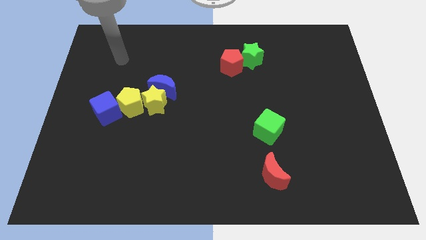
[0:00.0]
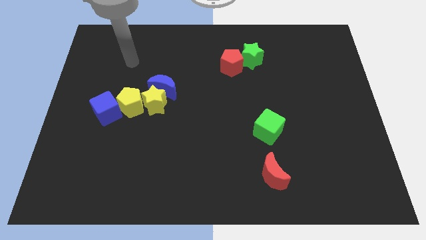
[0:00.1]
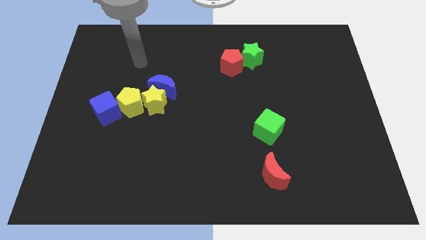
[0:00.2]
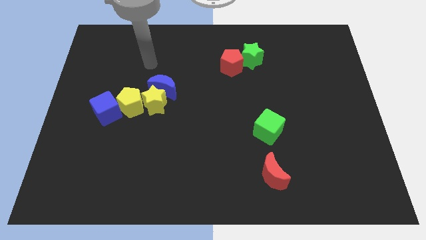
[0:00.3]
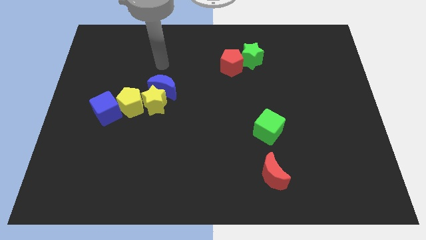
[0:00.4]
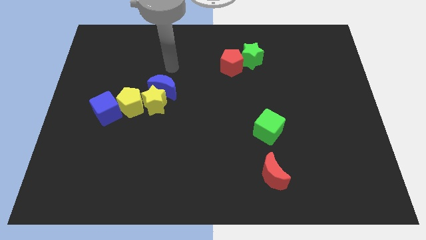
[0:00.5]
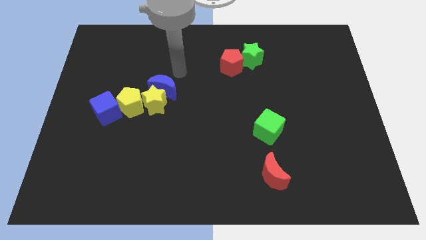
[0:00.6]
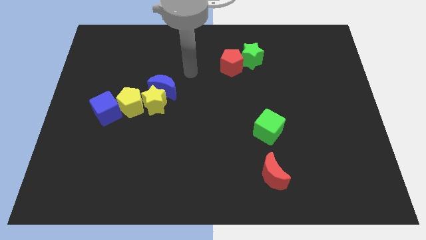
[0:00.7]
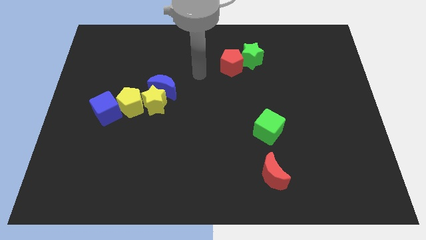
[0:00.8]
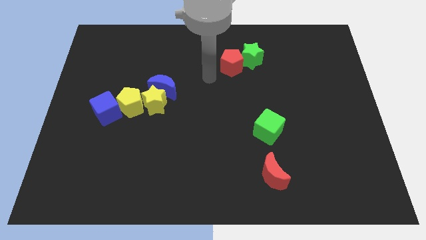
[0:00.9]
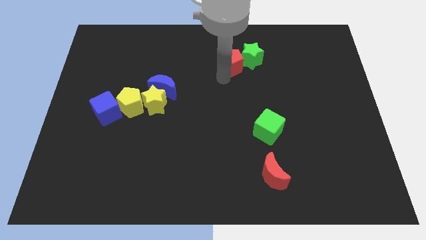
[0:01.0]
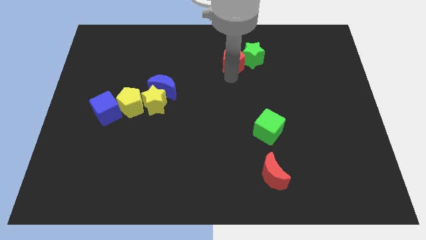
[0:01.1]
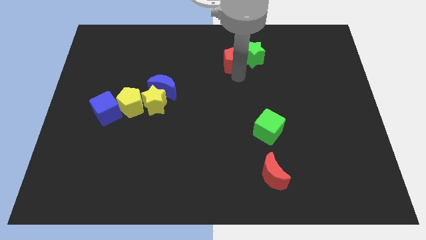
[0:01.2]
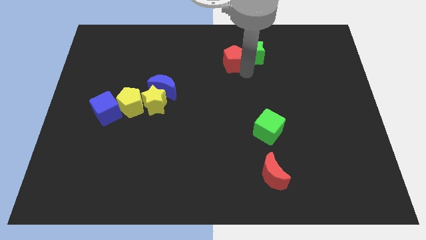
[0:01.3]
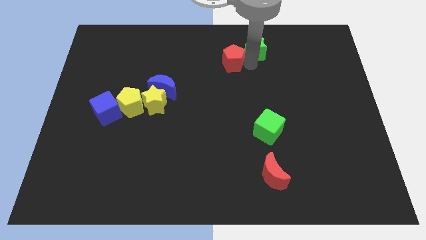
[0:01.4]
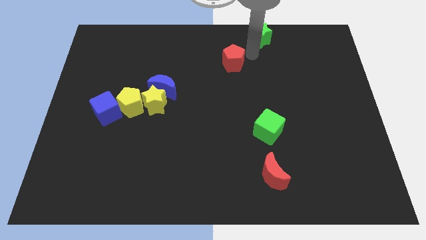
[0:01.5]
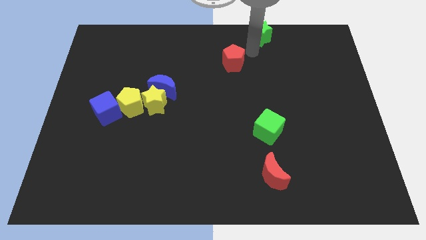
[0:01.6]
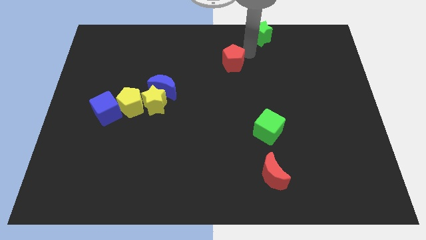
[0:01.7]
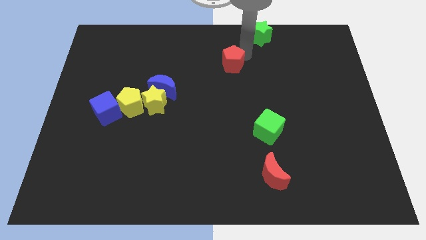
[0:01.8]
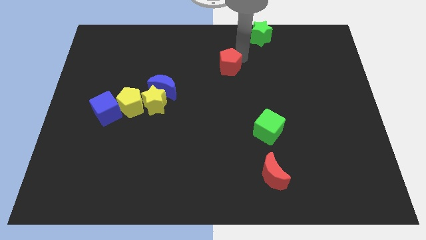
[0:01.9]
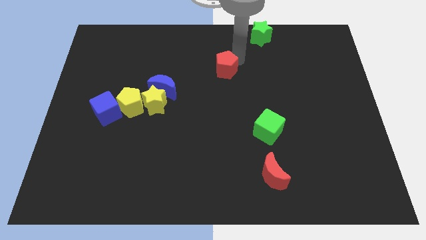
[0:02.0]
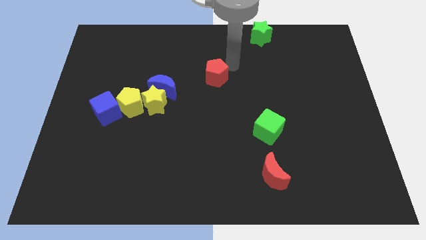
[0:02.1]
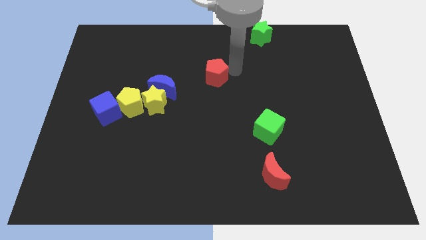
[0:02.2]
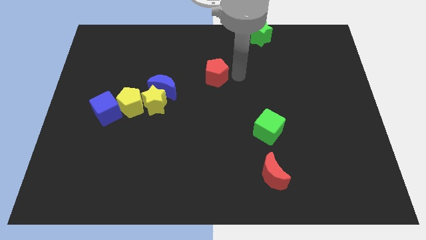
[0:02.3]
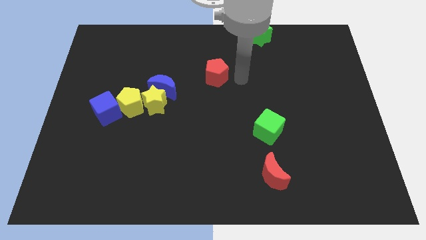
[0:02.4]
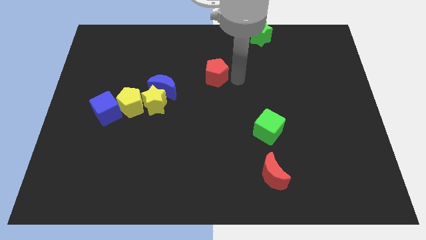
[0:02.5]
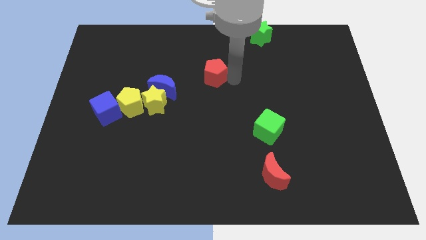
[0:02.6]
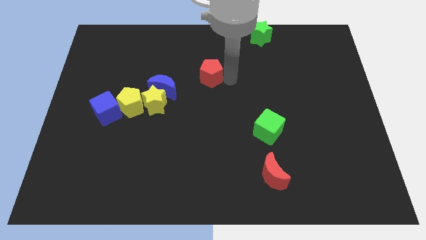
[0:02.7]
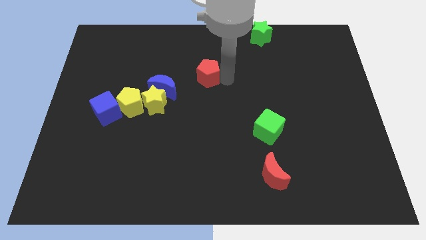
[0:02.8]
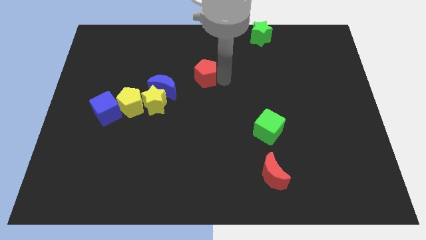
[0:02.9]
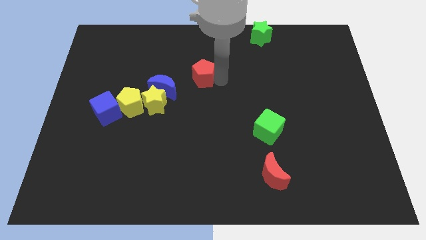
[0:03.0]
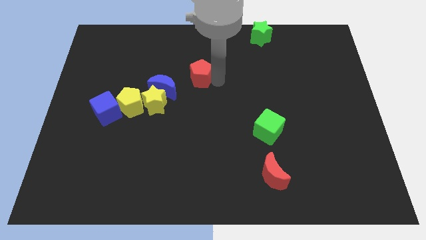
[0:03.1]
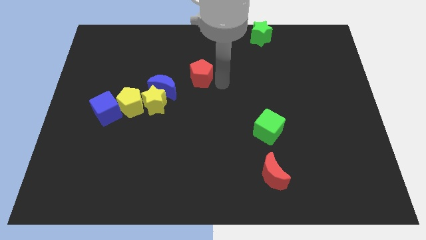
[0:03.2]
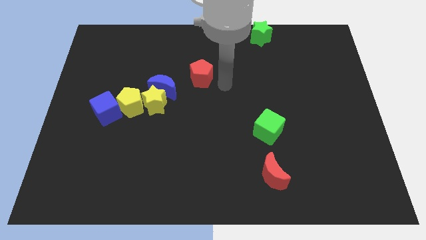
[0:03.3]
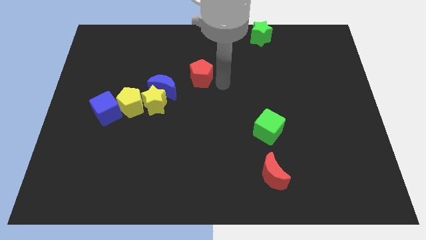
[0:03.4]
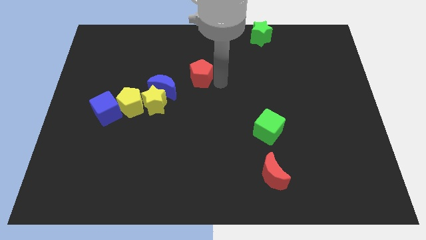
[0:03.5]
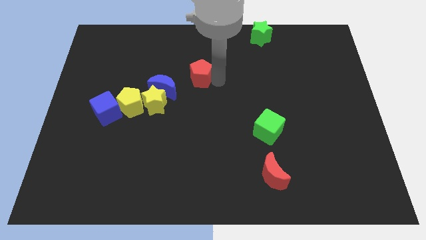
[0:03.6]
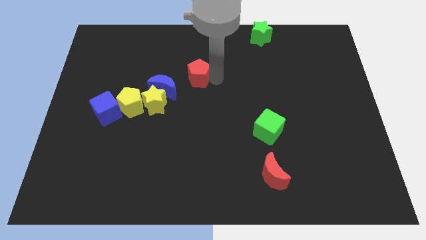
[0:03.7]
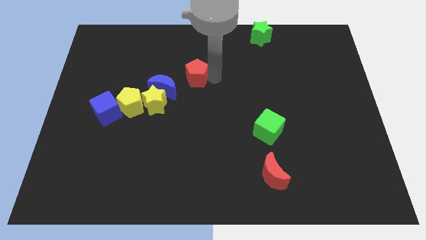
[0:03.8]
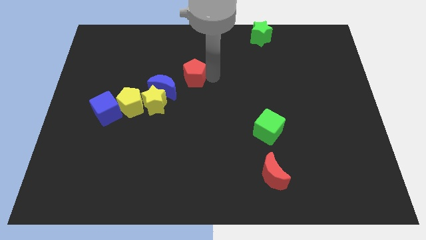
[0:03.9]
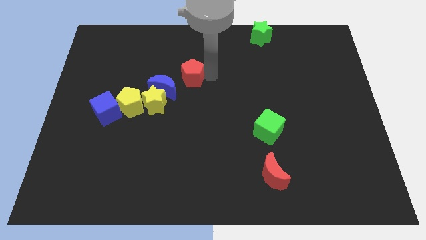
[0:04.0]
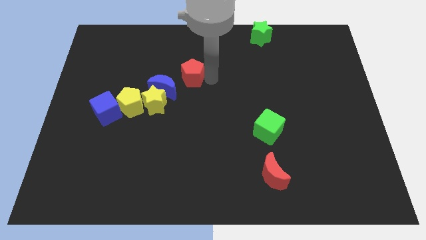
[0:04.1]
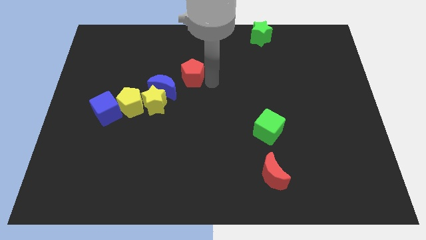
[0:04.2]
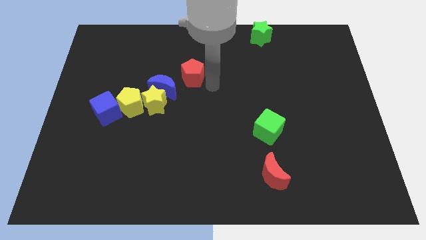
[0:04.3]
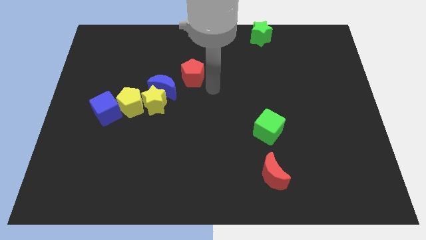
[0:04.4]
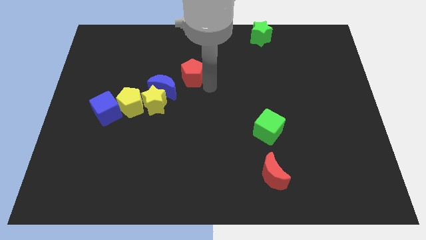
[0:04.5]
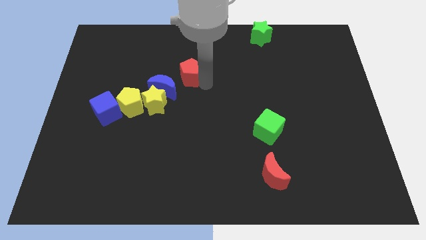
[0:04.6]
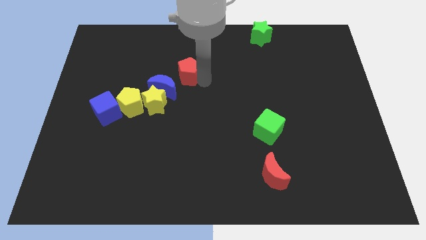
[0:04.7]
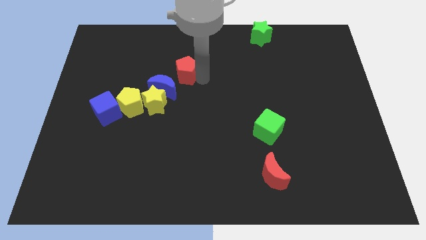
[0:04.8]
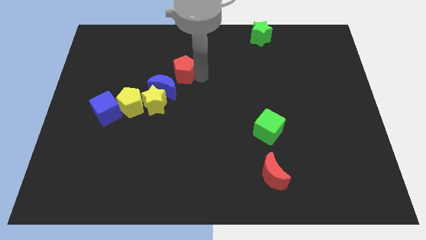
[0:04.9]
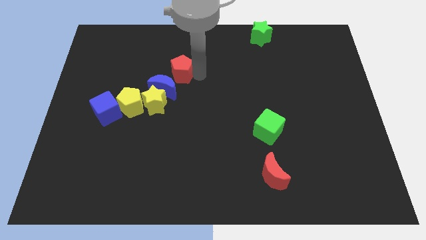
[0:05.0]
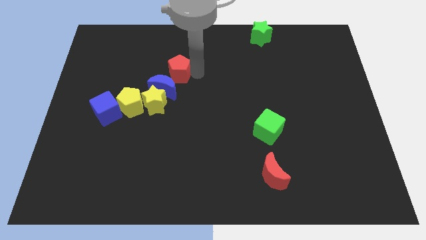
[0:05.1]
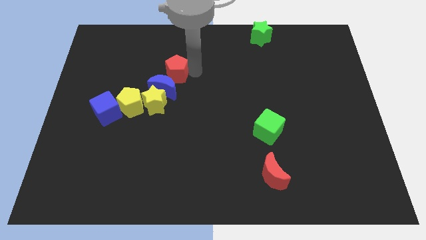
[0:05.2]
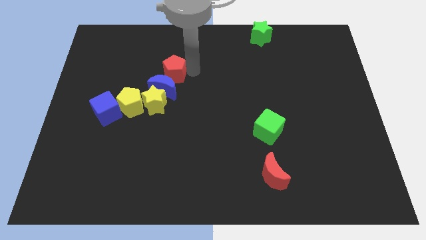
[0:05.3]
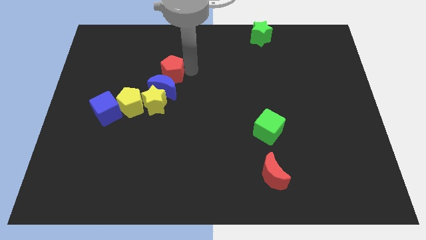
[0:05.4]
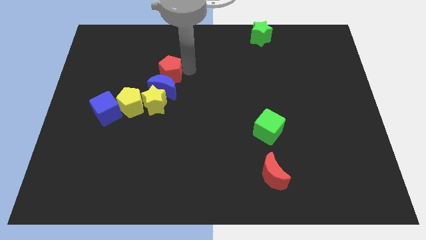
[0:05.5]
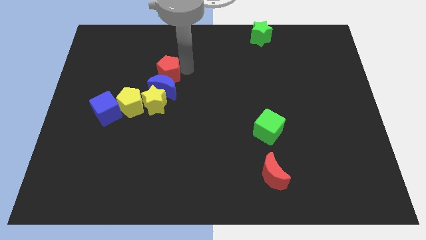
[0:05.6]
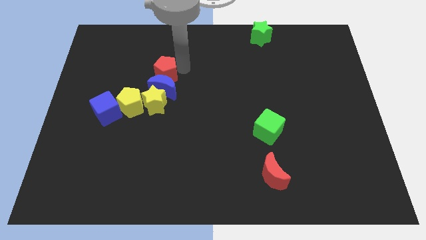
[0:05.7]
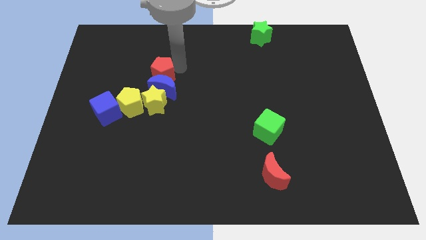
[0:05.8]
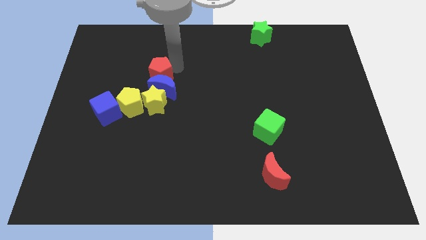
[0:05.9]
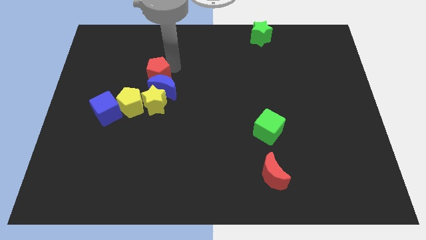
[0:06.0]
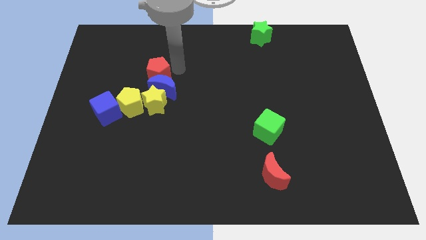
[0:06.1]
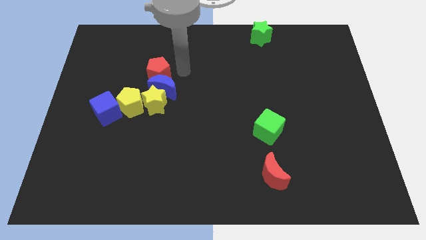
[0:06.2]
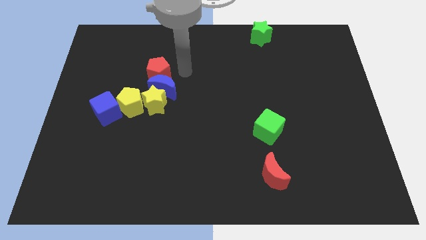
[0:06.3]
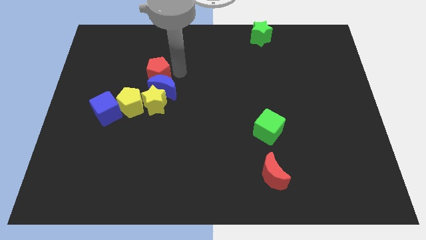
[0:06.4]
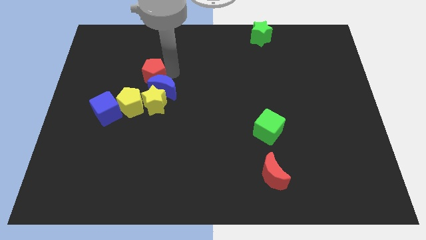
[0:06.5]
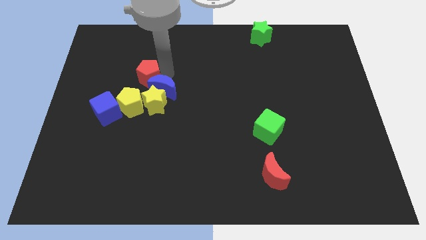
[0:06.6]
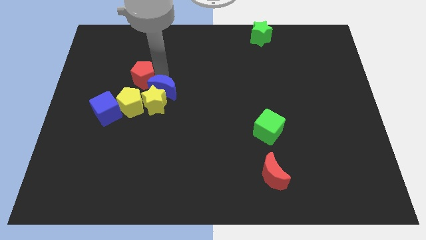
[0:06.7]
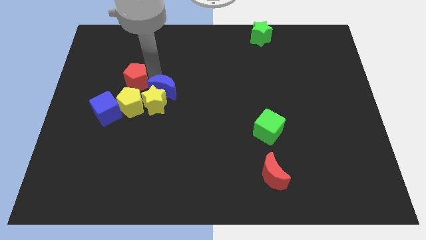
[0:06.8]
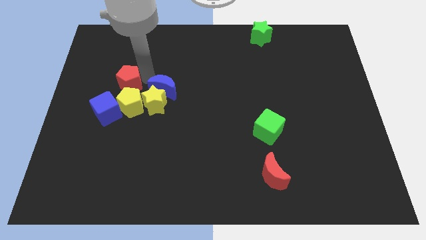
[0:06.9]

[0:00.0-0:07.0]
move the red pentagon to the top of the blue cube

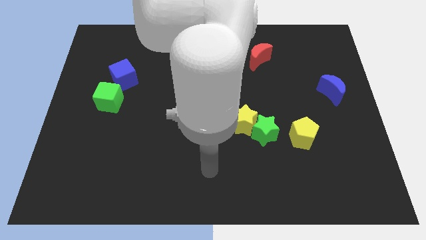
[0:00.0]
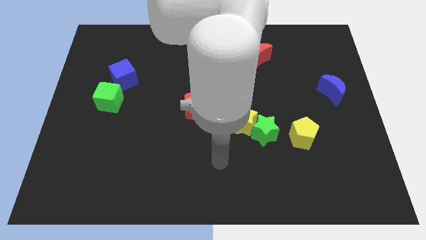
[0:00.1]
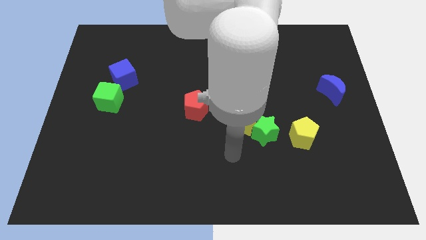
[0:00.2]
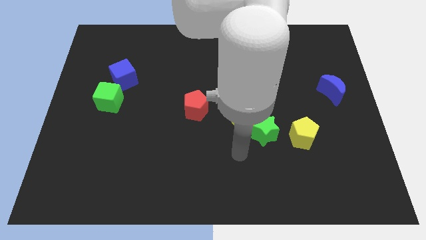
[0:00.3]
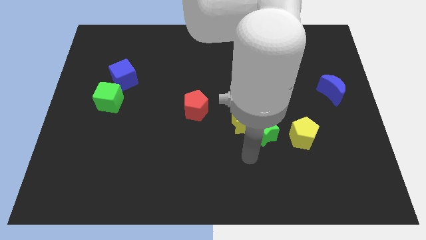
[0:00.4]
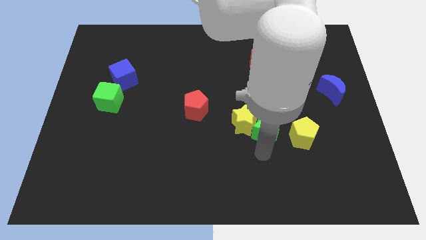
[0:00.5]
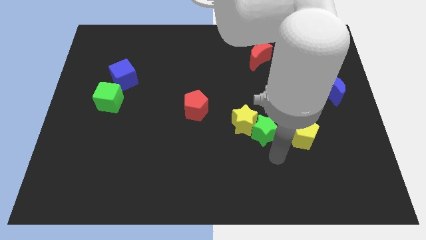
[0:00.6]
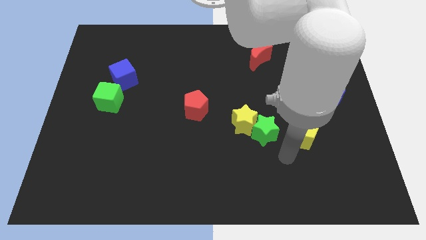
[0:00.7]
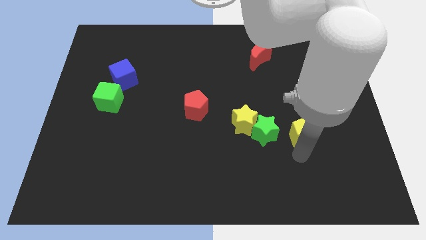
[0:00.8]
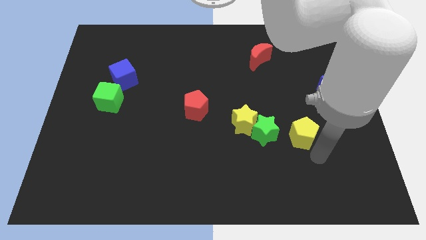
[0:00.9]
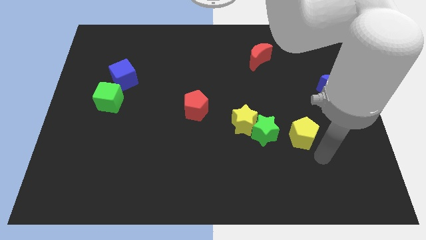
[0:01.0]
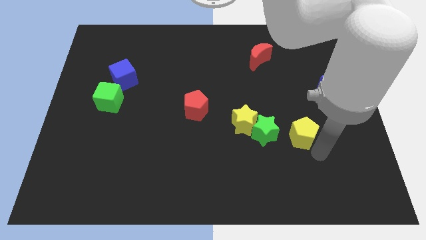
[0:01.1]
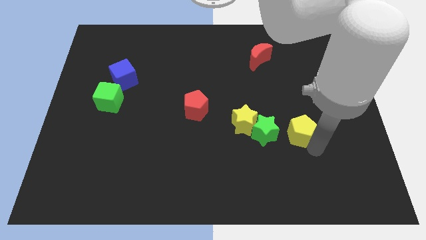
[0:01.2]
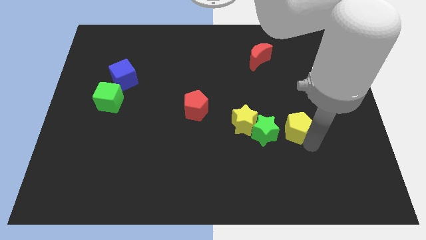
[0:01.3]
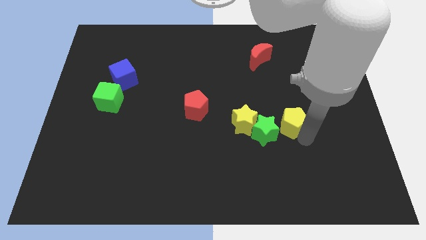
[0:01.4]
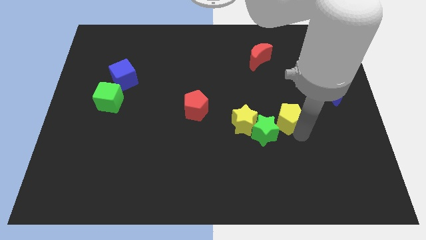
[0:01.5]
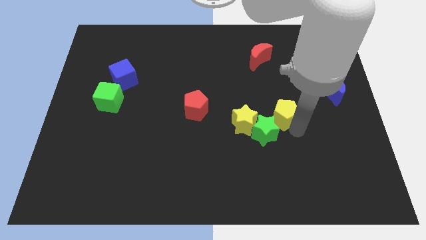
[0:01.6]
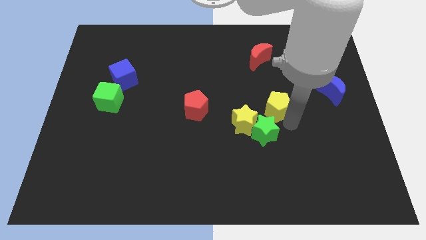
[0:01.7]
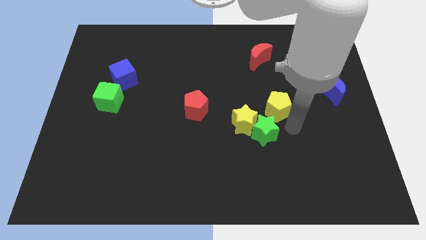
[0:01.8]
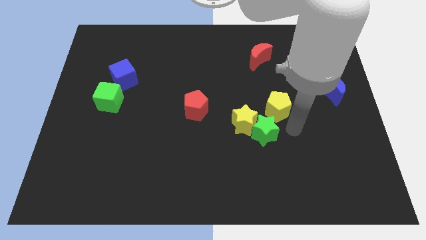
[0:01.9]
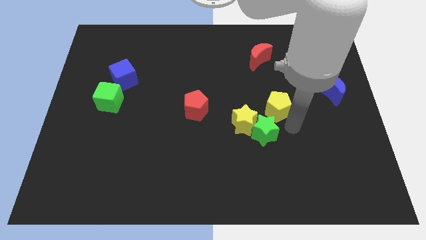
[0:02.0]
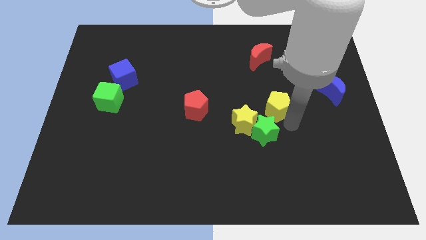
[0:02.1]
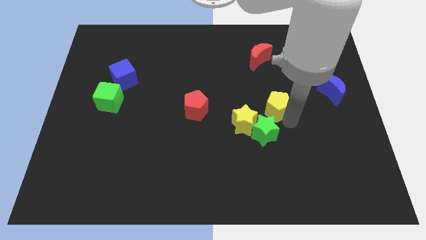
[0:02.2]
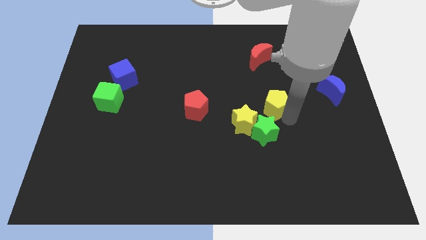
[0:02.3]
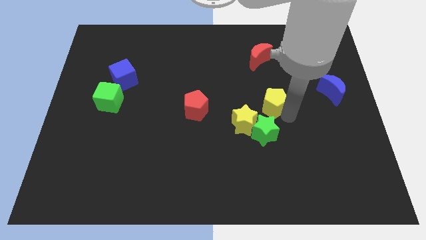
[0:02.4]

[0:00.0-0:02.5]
slide the yellow pentagon to the bottom of the red moon
